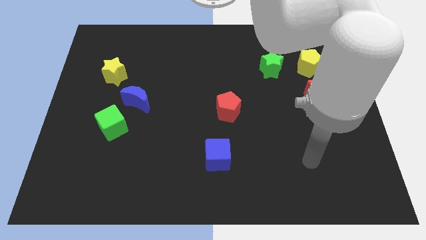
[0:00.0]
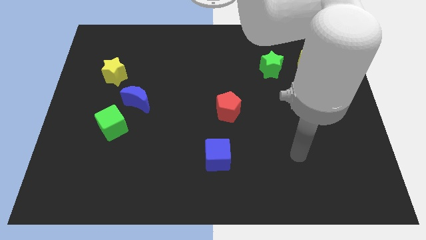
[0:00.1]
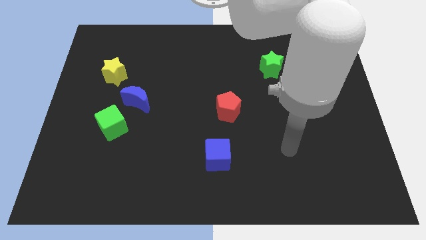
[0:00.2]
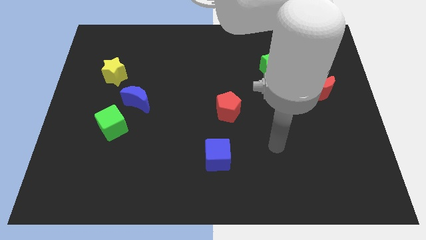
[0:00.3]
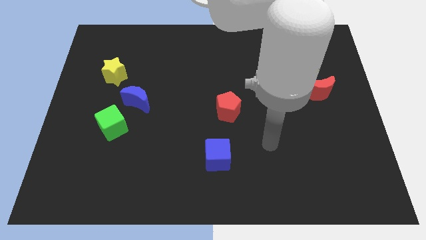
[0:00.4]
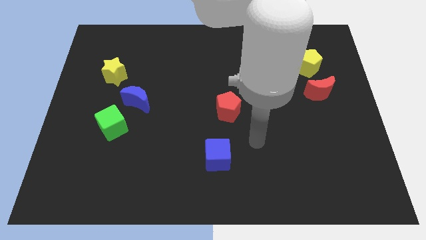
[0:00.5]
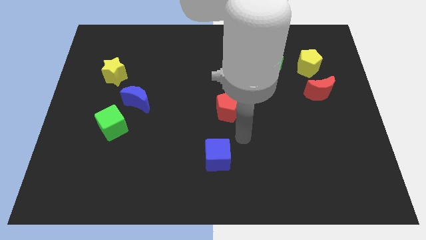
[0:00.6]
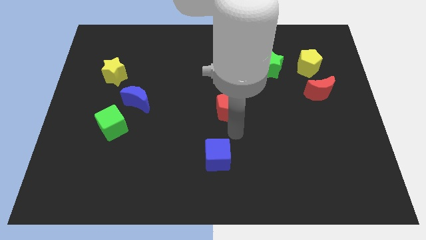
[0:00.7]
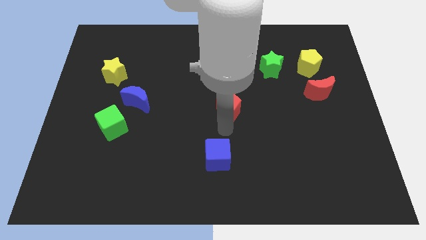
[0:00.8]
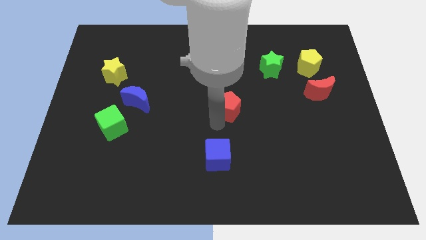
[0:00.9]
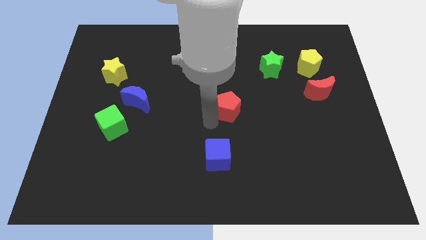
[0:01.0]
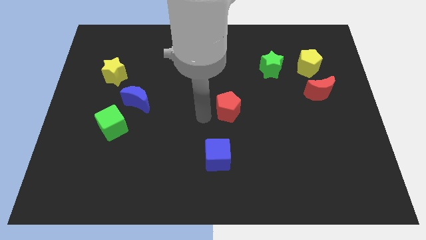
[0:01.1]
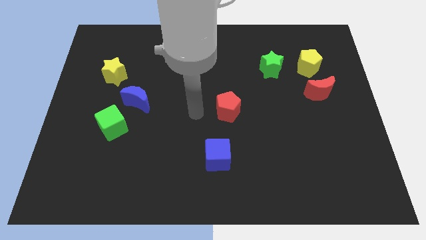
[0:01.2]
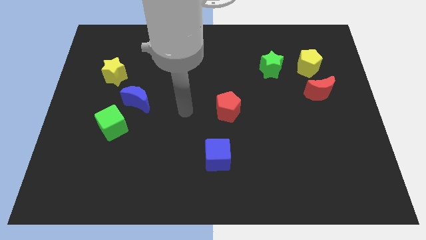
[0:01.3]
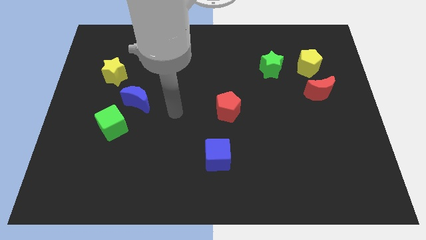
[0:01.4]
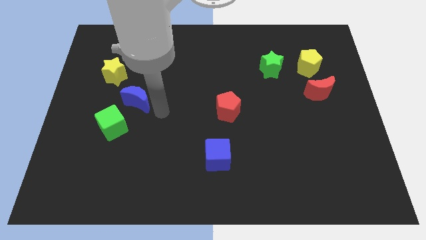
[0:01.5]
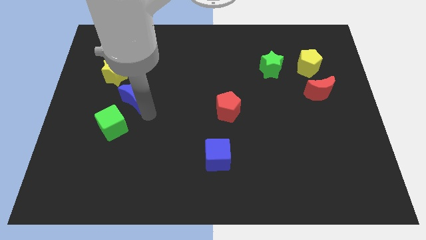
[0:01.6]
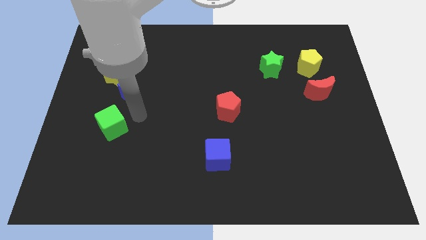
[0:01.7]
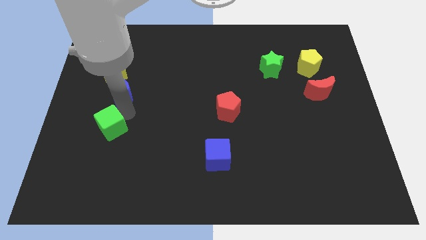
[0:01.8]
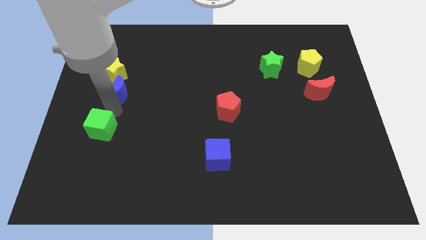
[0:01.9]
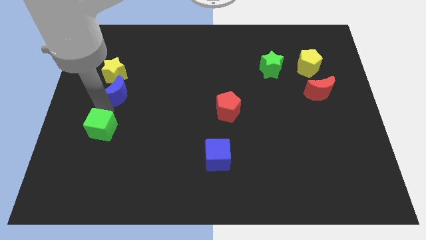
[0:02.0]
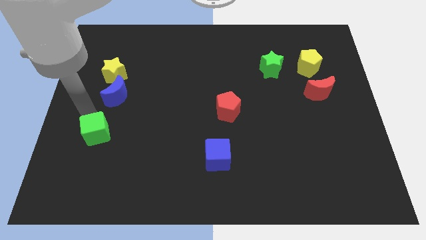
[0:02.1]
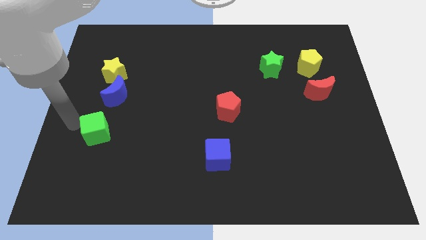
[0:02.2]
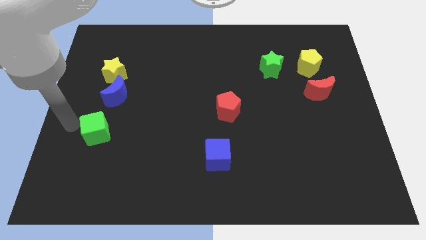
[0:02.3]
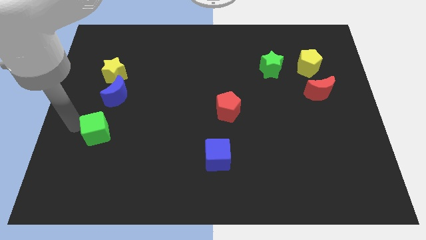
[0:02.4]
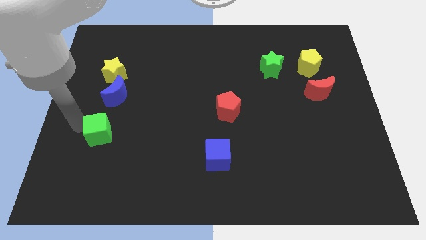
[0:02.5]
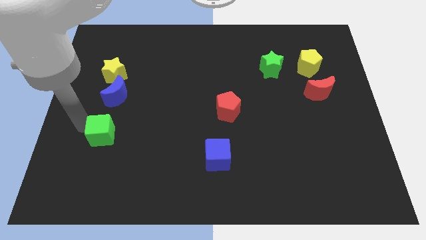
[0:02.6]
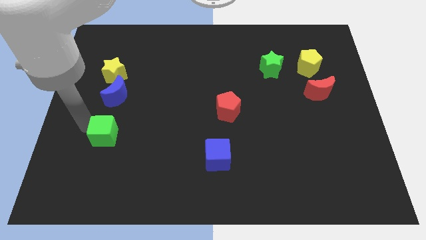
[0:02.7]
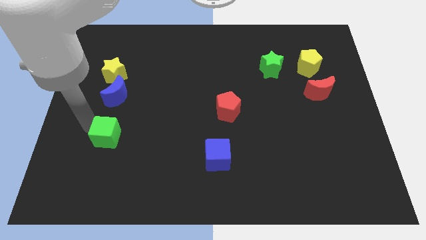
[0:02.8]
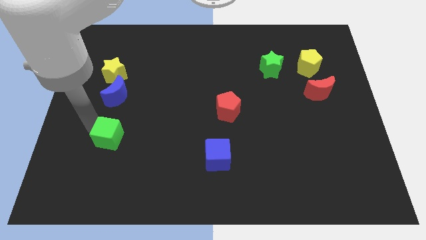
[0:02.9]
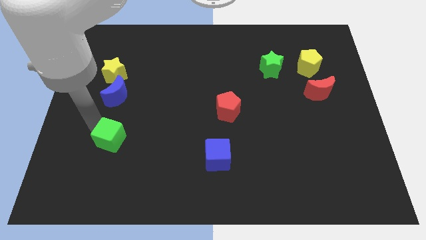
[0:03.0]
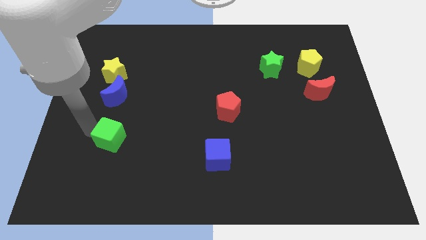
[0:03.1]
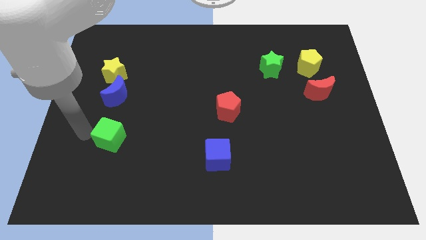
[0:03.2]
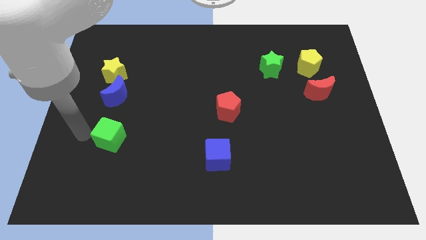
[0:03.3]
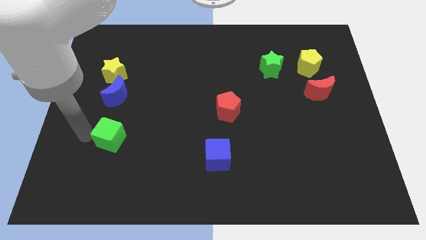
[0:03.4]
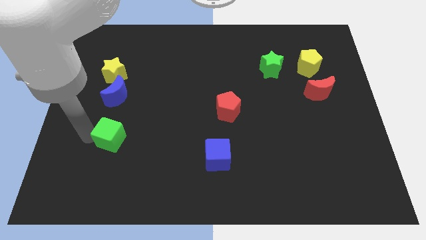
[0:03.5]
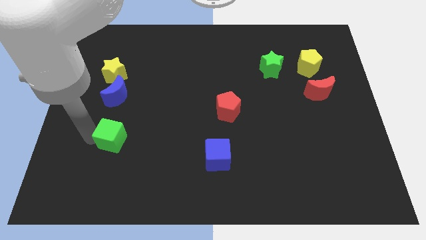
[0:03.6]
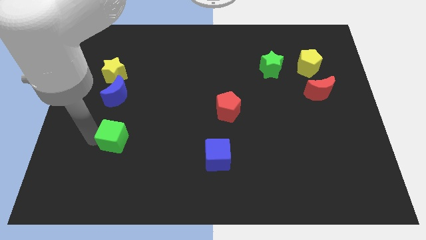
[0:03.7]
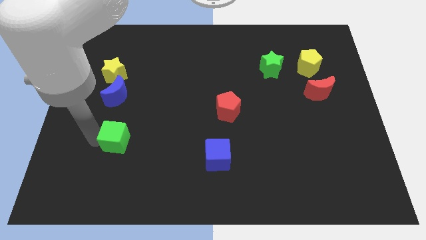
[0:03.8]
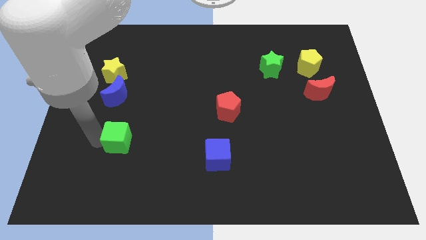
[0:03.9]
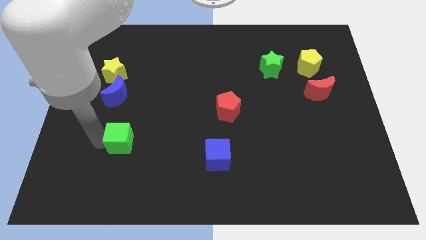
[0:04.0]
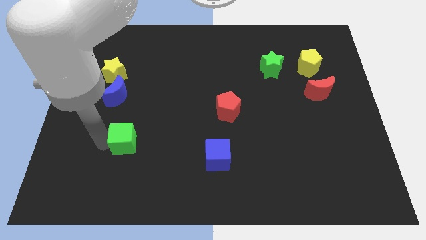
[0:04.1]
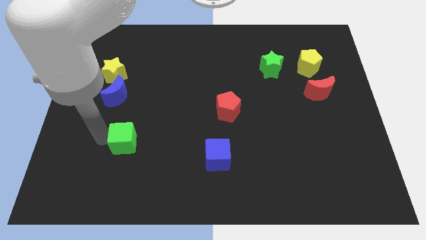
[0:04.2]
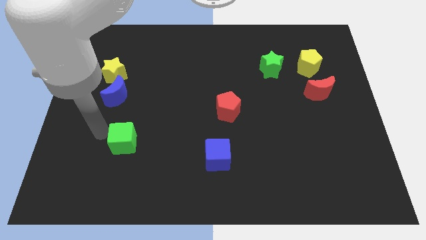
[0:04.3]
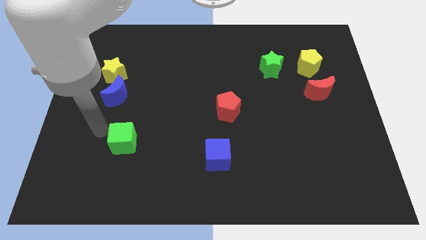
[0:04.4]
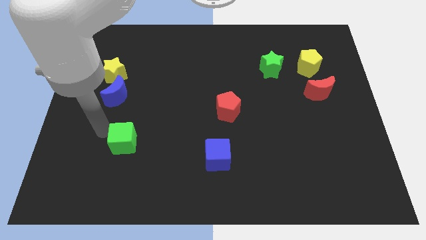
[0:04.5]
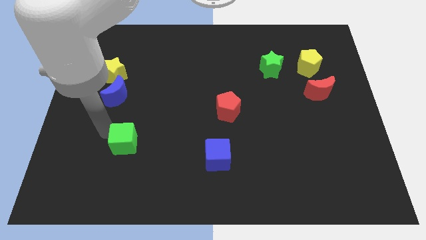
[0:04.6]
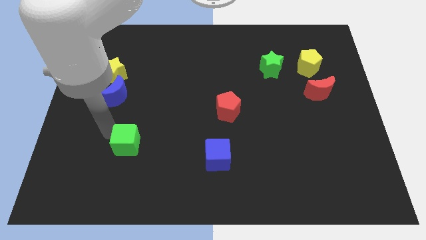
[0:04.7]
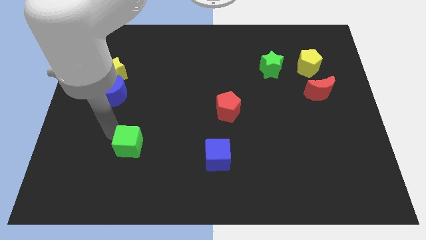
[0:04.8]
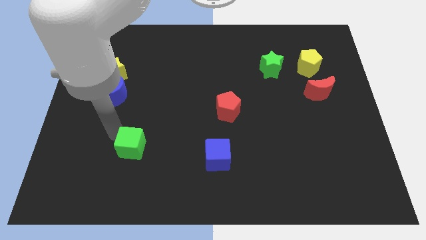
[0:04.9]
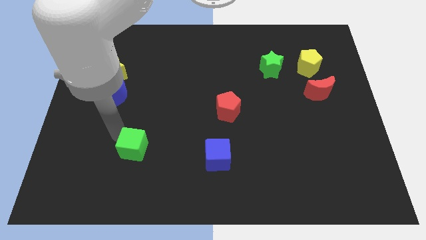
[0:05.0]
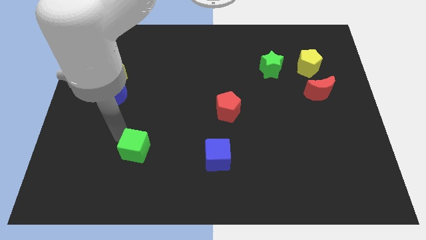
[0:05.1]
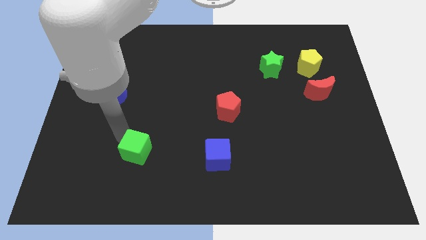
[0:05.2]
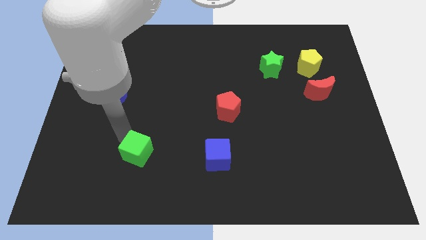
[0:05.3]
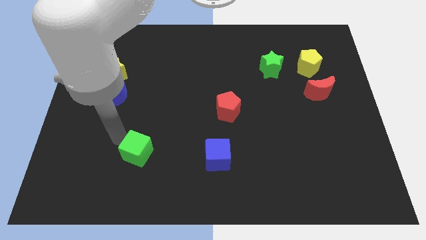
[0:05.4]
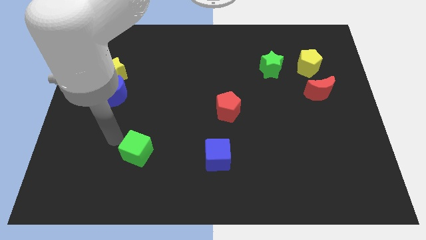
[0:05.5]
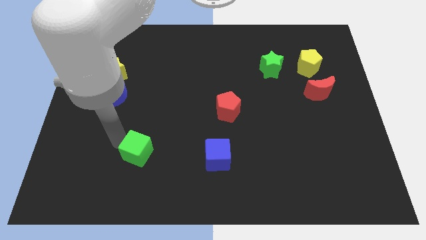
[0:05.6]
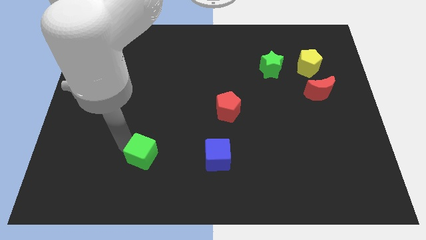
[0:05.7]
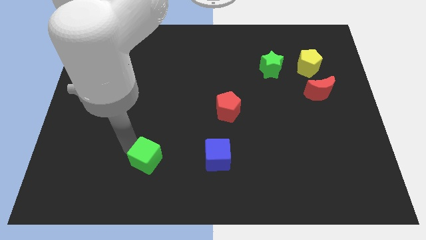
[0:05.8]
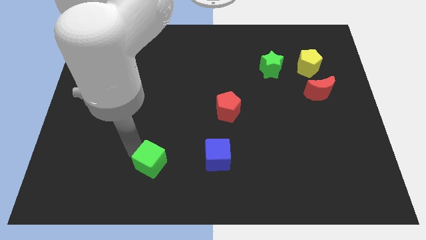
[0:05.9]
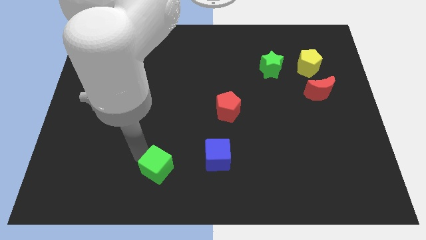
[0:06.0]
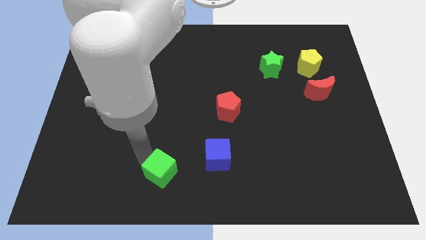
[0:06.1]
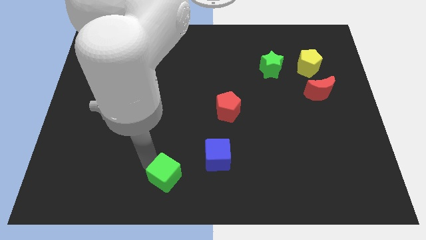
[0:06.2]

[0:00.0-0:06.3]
move the green cube to the bottom side
